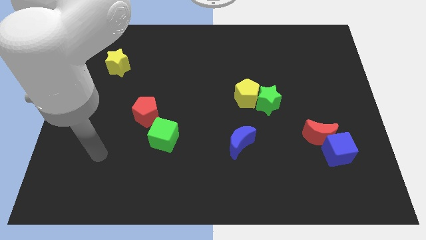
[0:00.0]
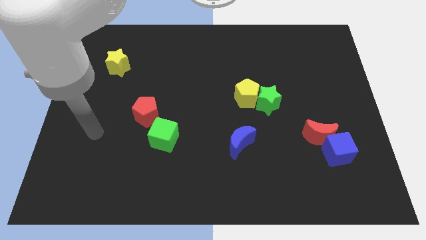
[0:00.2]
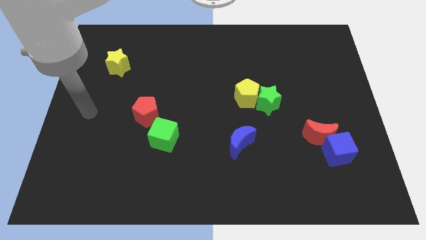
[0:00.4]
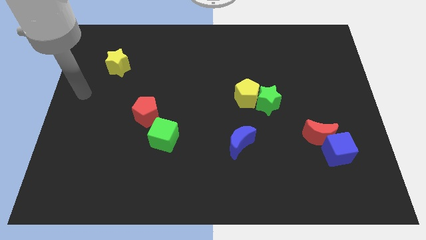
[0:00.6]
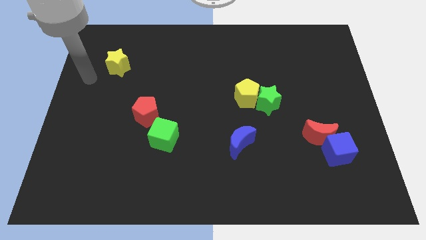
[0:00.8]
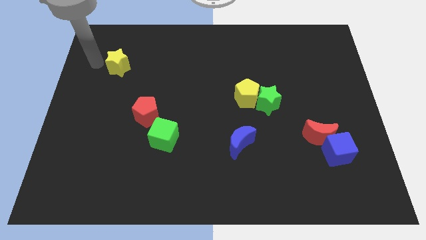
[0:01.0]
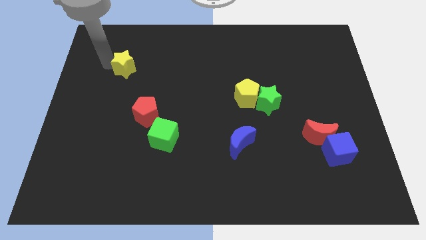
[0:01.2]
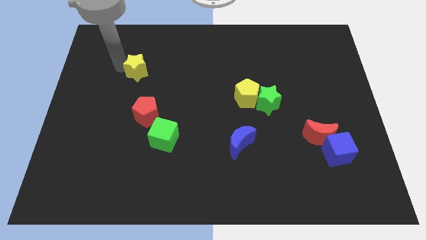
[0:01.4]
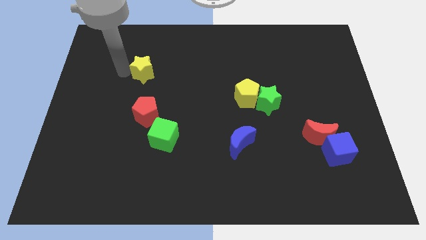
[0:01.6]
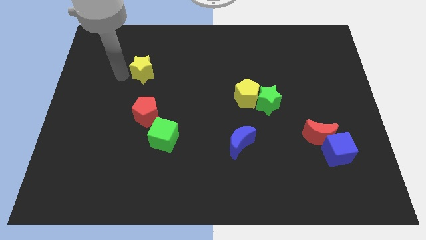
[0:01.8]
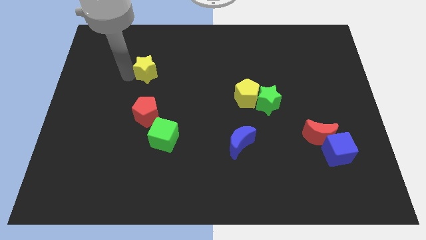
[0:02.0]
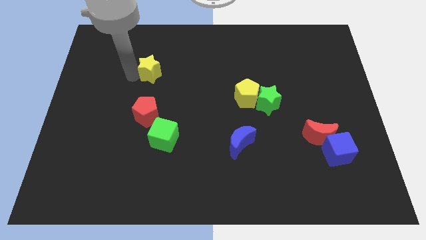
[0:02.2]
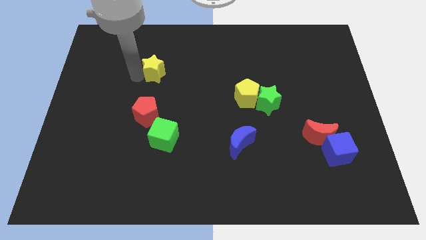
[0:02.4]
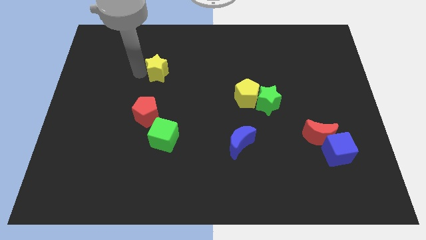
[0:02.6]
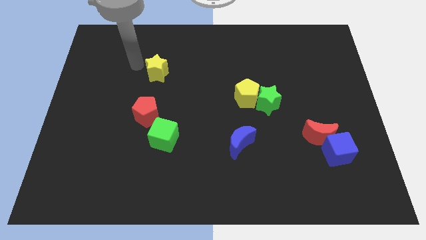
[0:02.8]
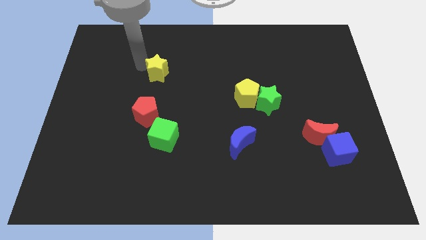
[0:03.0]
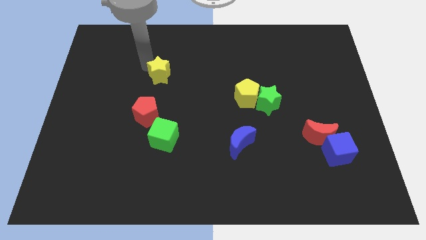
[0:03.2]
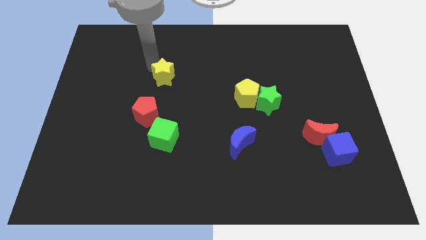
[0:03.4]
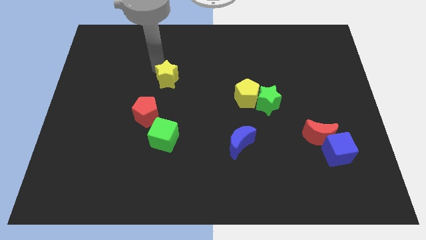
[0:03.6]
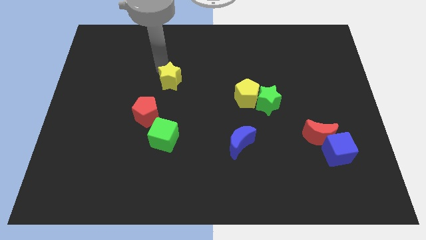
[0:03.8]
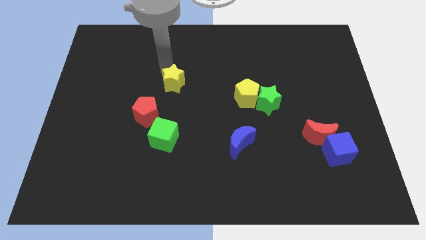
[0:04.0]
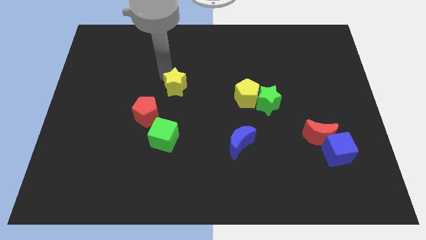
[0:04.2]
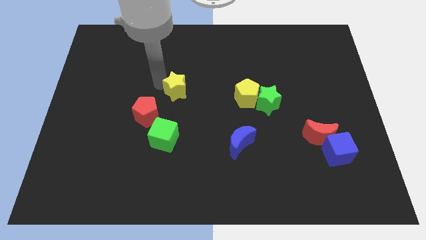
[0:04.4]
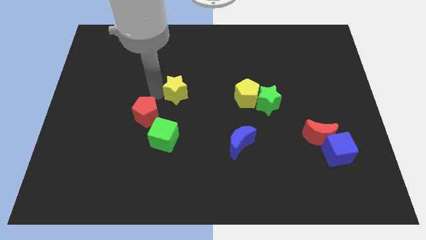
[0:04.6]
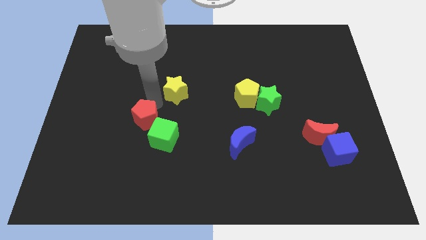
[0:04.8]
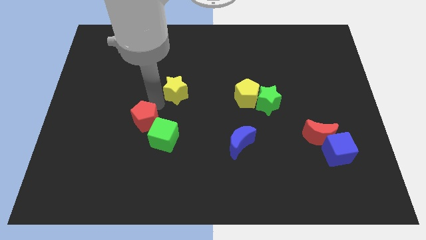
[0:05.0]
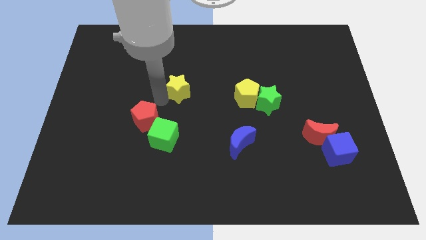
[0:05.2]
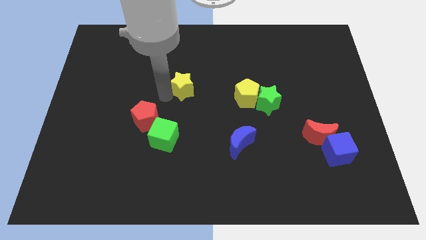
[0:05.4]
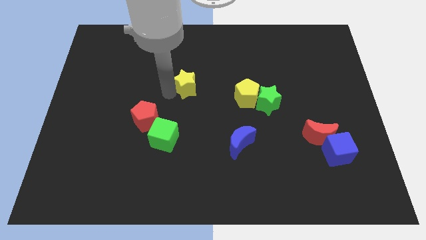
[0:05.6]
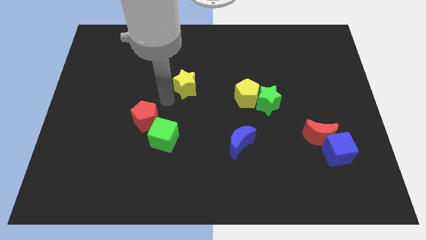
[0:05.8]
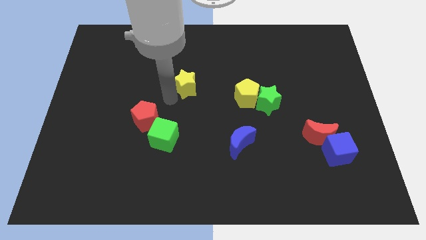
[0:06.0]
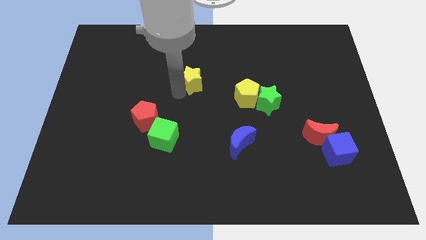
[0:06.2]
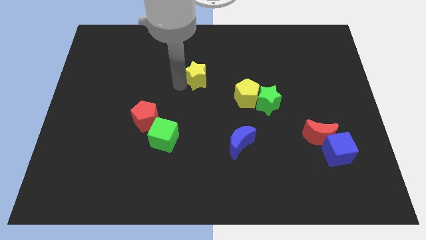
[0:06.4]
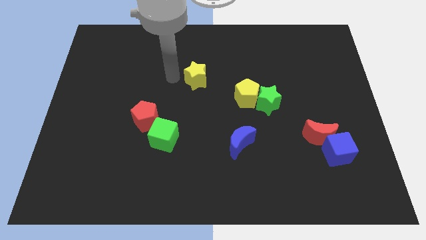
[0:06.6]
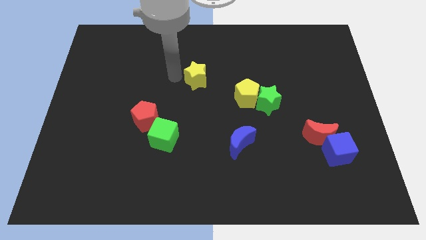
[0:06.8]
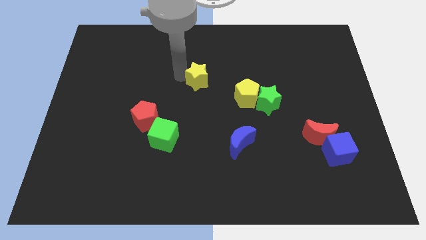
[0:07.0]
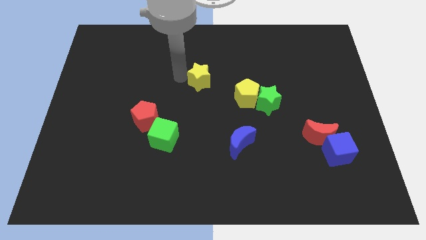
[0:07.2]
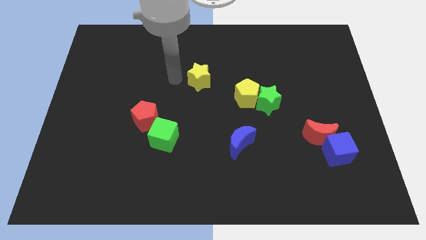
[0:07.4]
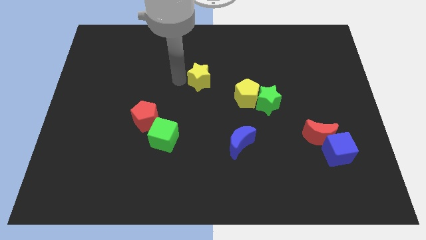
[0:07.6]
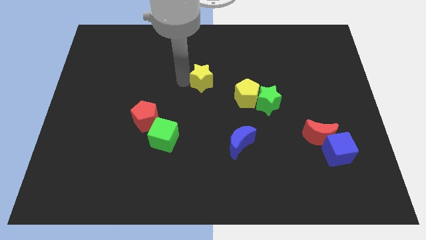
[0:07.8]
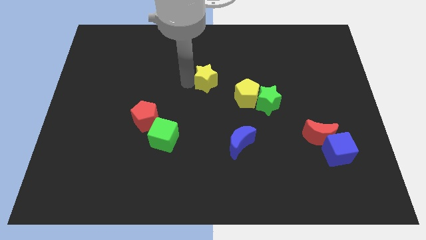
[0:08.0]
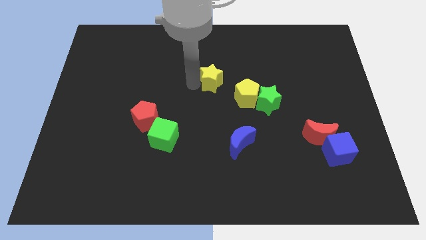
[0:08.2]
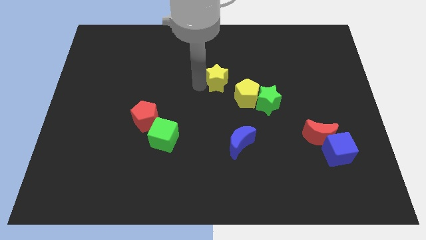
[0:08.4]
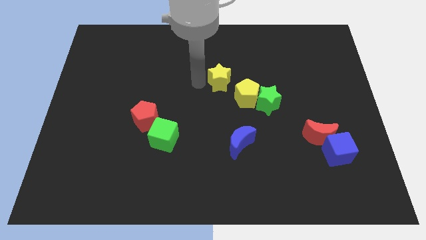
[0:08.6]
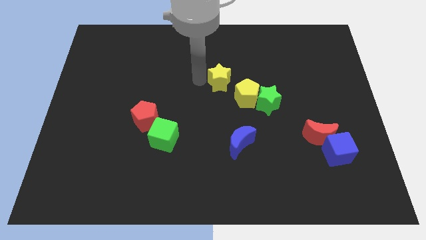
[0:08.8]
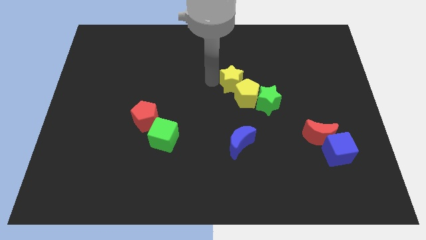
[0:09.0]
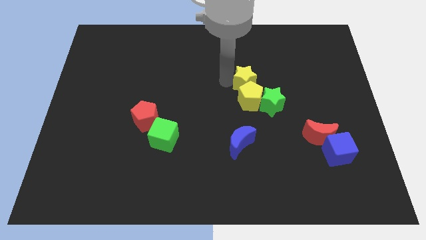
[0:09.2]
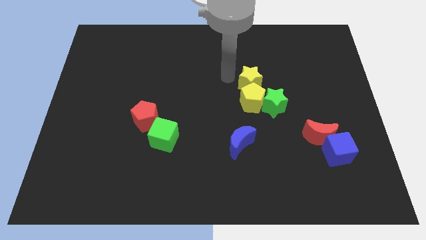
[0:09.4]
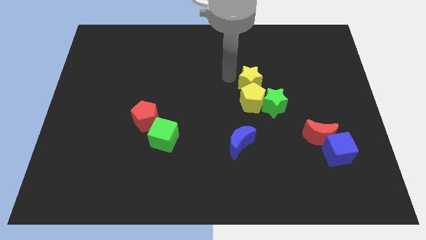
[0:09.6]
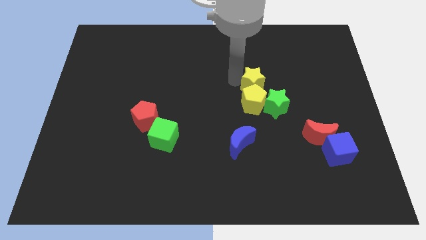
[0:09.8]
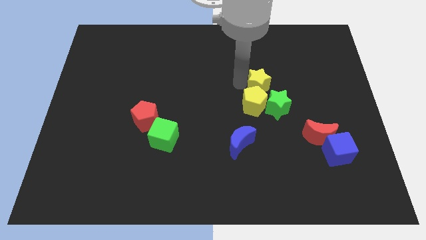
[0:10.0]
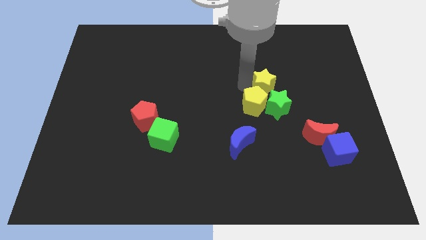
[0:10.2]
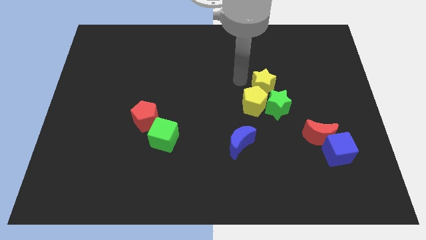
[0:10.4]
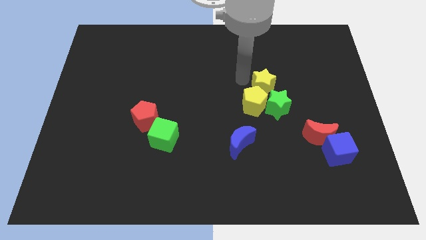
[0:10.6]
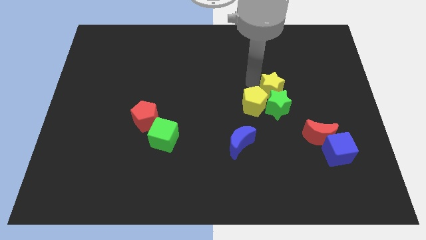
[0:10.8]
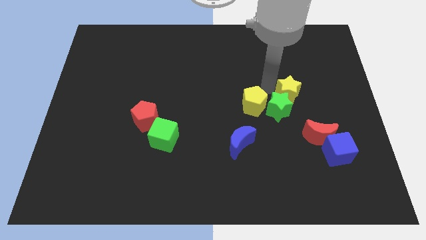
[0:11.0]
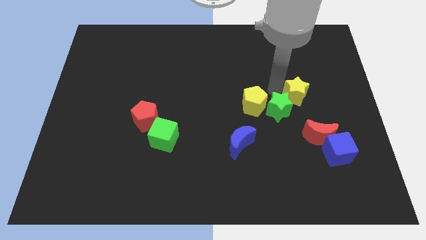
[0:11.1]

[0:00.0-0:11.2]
push the yellow star to the top of the red moon

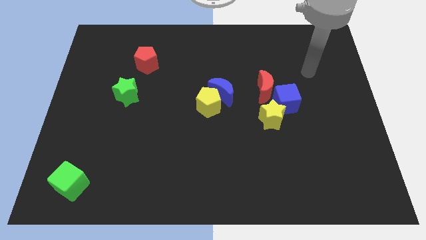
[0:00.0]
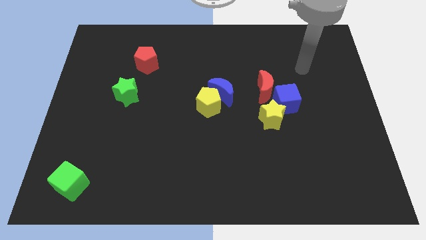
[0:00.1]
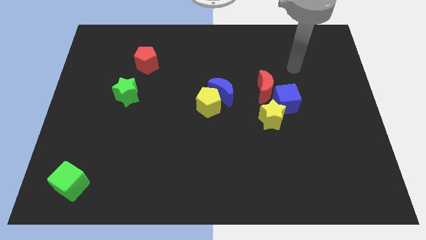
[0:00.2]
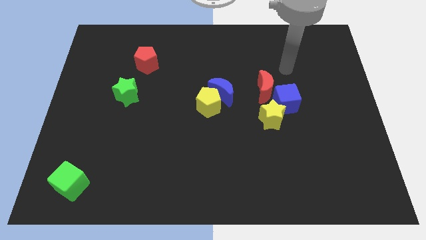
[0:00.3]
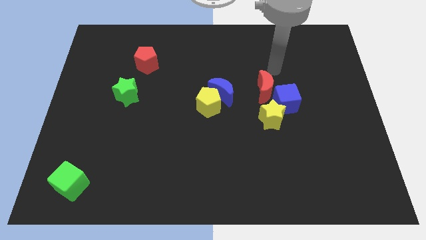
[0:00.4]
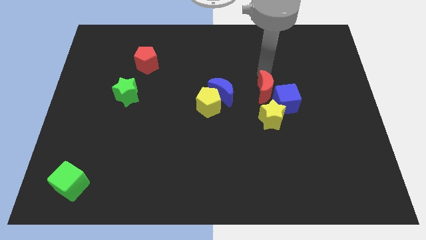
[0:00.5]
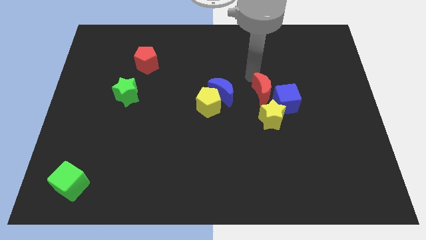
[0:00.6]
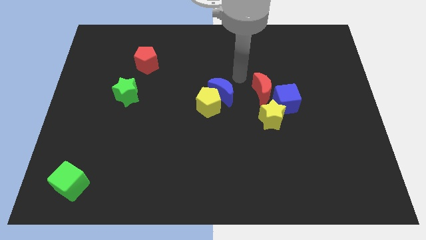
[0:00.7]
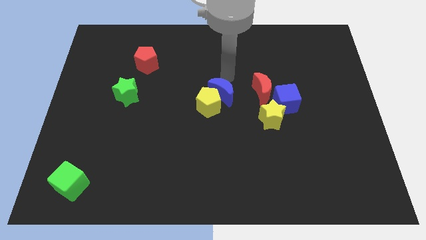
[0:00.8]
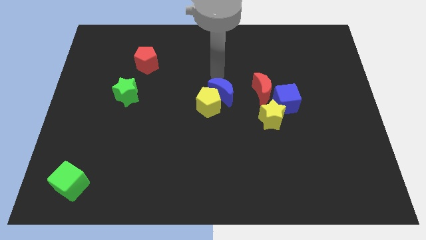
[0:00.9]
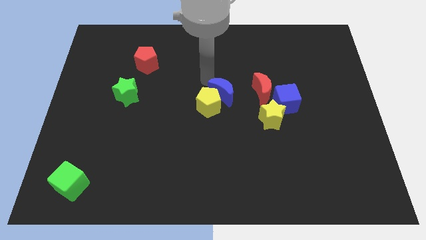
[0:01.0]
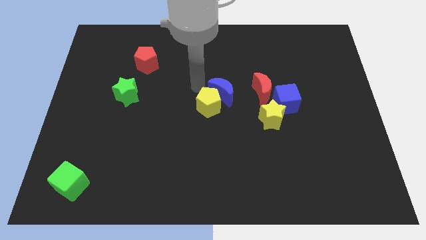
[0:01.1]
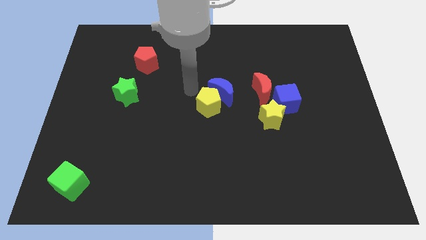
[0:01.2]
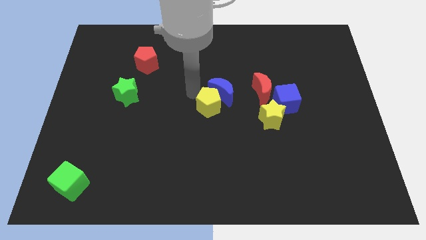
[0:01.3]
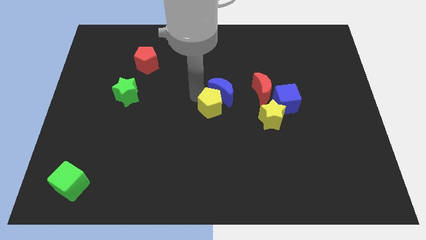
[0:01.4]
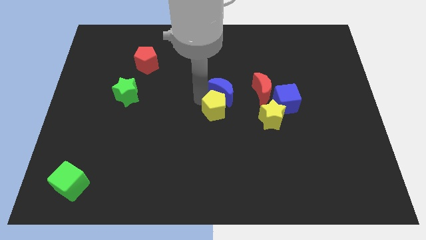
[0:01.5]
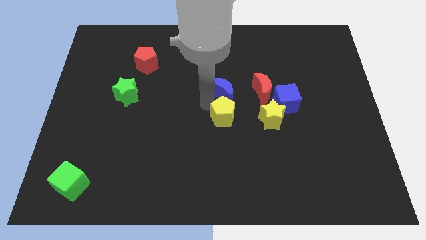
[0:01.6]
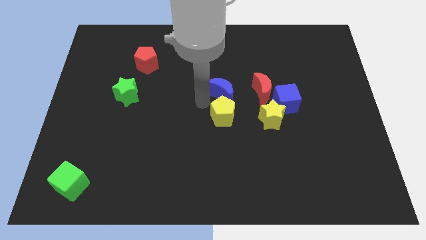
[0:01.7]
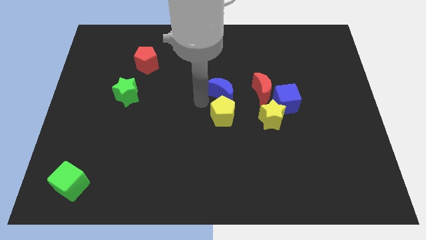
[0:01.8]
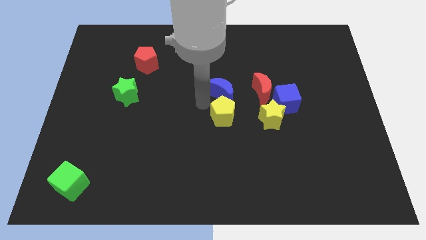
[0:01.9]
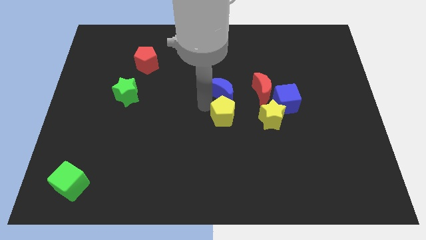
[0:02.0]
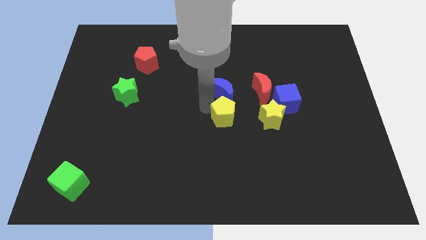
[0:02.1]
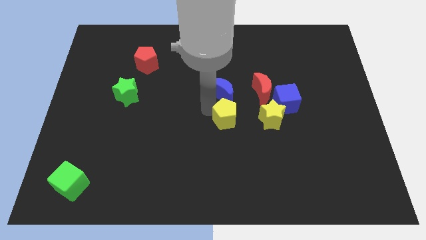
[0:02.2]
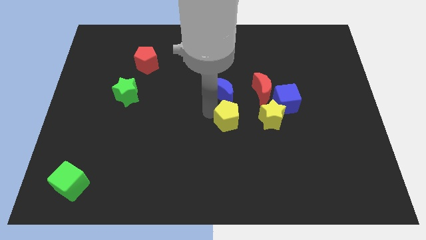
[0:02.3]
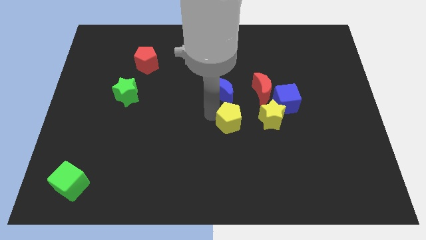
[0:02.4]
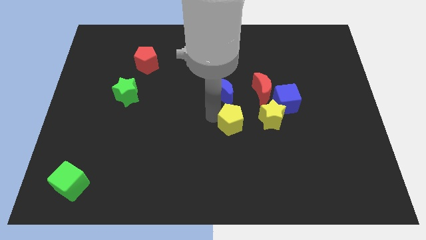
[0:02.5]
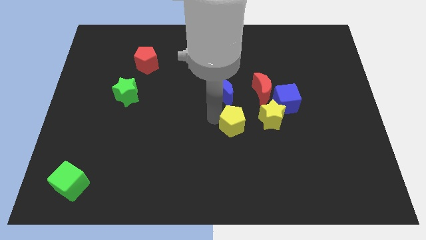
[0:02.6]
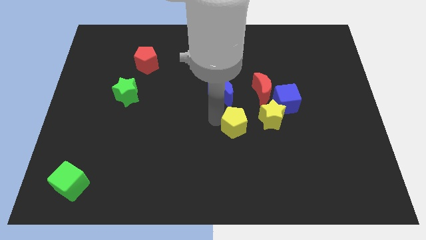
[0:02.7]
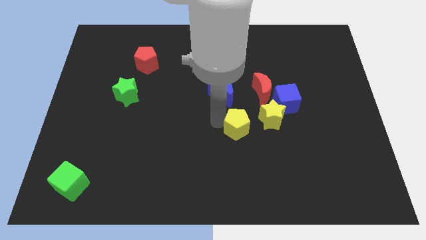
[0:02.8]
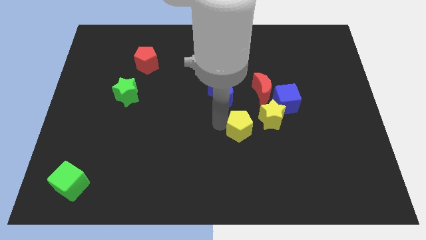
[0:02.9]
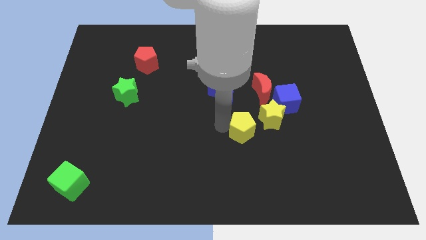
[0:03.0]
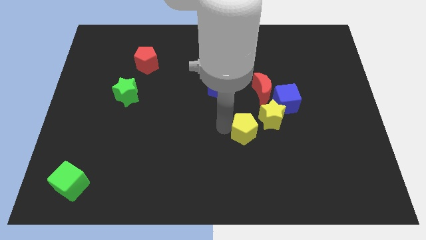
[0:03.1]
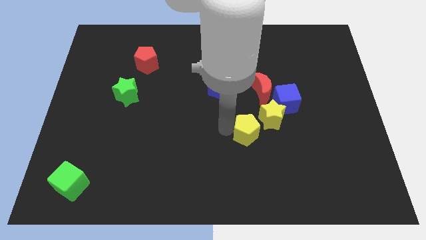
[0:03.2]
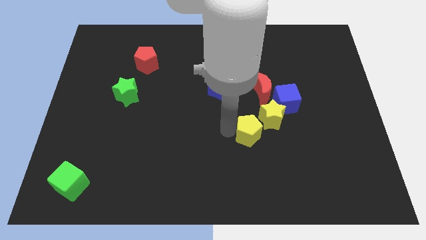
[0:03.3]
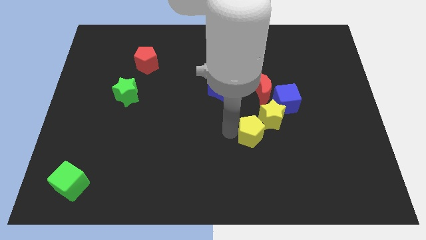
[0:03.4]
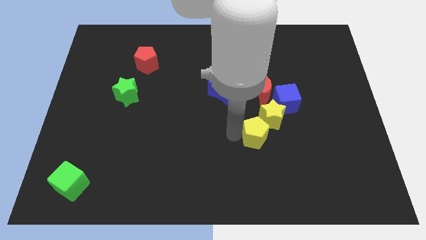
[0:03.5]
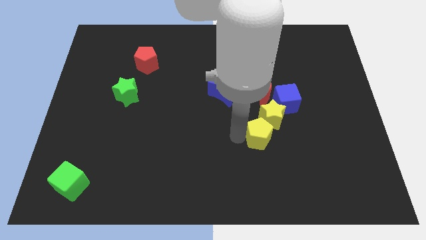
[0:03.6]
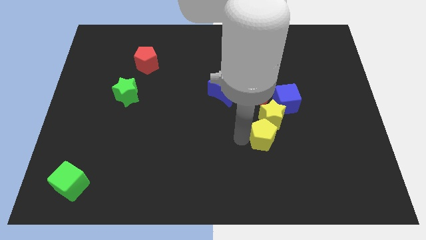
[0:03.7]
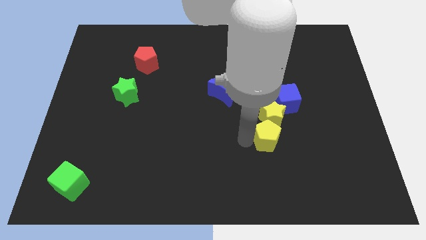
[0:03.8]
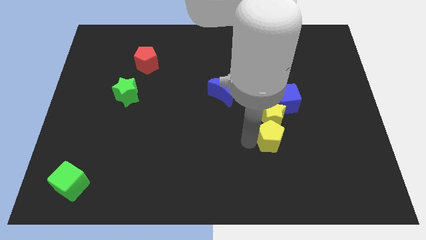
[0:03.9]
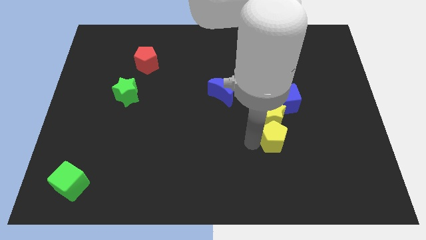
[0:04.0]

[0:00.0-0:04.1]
slide the yellow pentagon to the bottom right side of the yellow star
